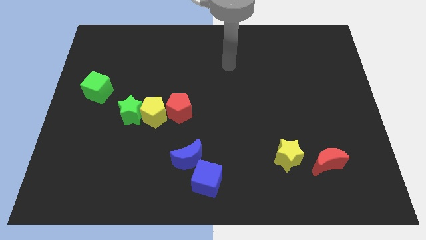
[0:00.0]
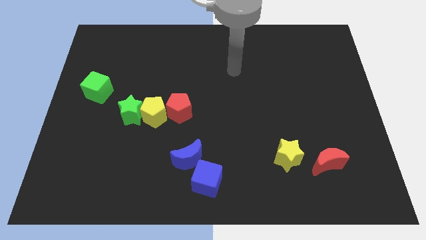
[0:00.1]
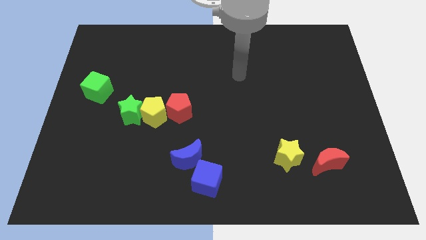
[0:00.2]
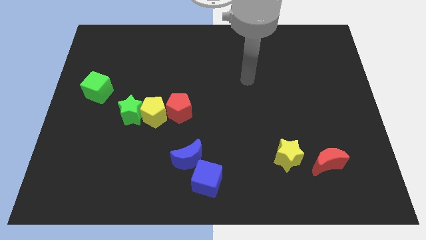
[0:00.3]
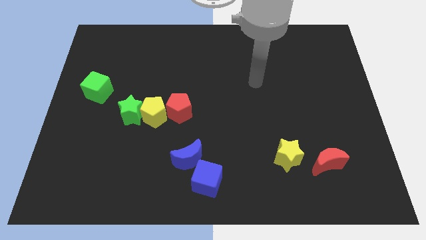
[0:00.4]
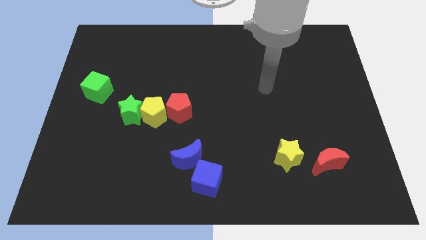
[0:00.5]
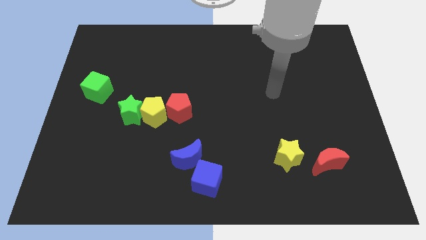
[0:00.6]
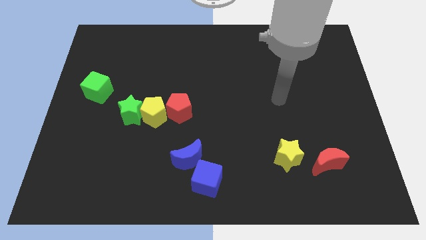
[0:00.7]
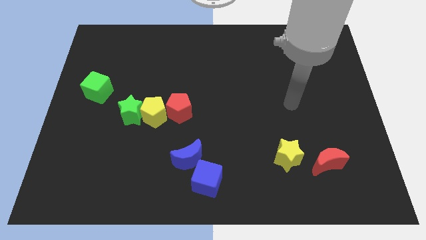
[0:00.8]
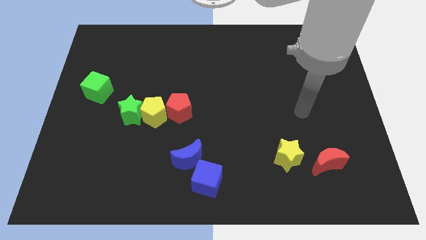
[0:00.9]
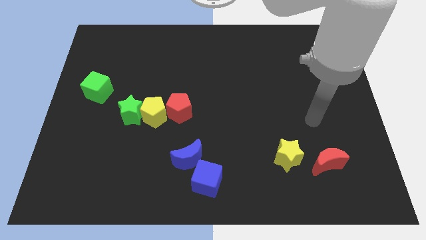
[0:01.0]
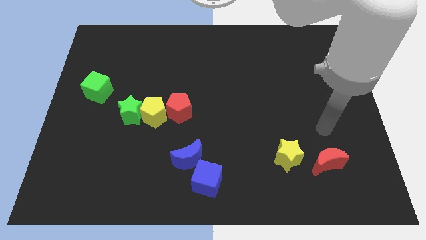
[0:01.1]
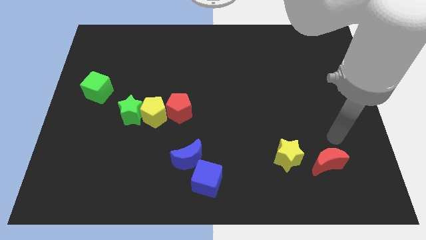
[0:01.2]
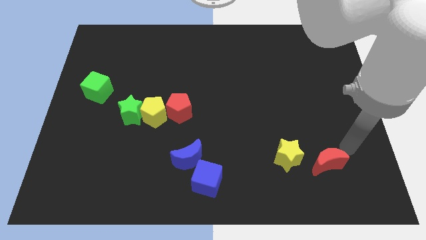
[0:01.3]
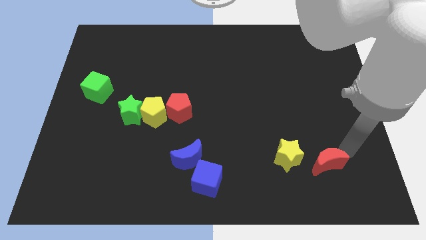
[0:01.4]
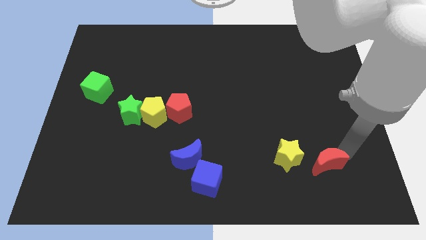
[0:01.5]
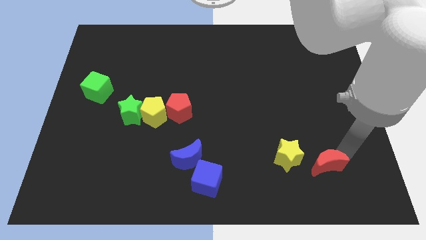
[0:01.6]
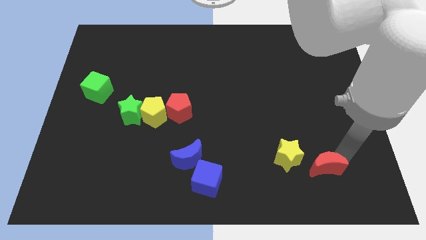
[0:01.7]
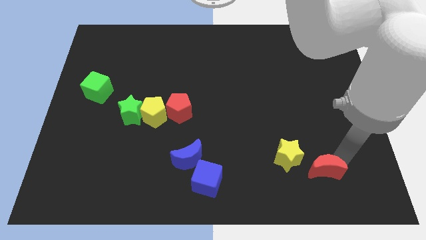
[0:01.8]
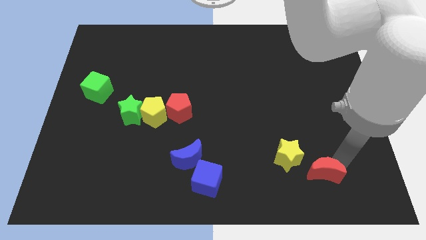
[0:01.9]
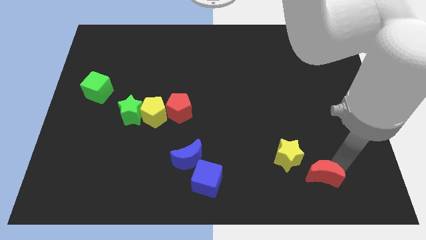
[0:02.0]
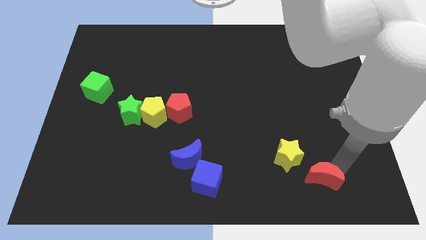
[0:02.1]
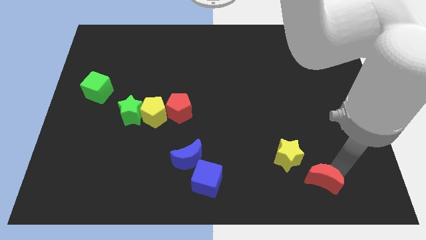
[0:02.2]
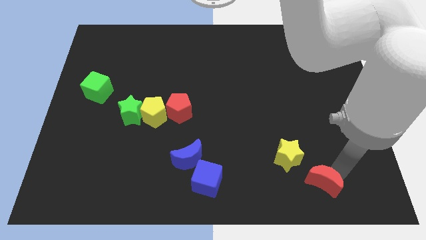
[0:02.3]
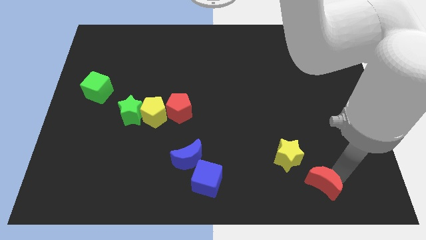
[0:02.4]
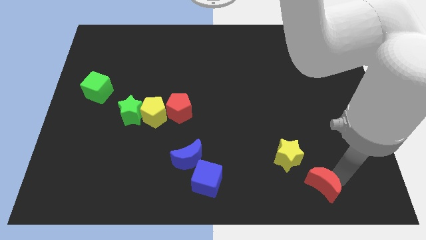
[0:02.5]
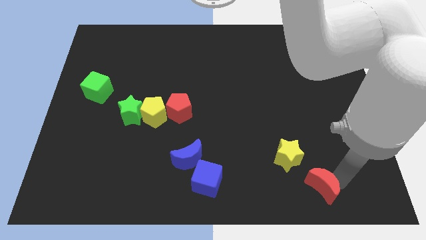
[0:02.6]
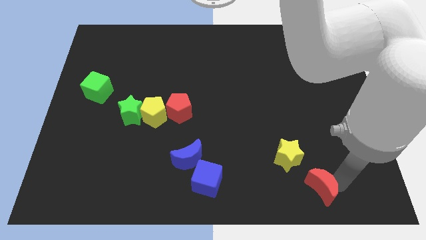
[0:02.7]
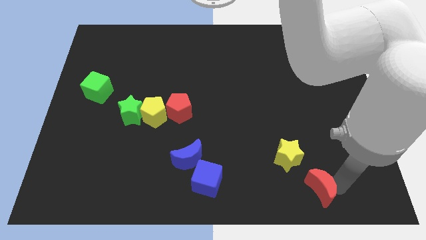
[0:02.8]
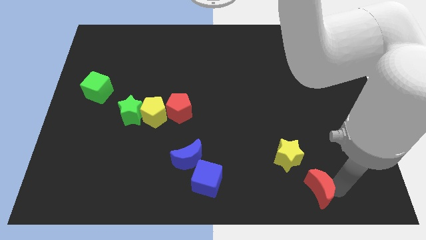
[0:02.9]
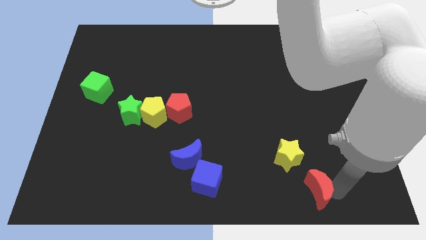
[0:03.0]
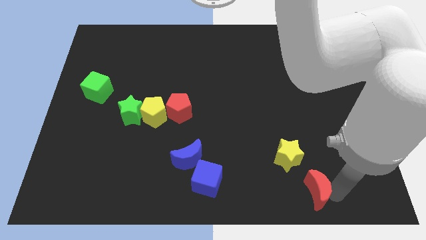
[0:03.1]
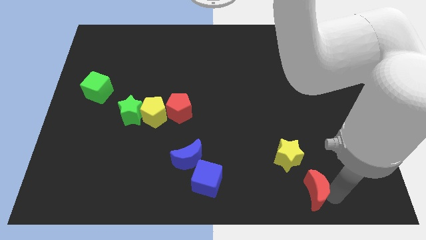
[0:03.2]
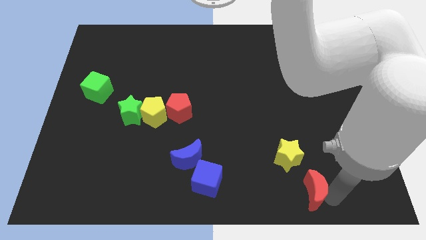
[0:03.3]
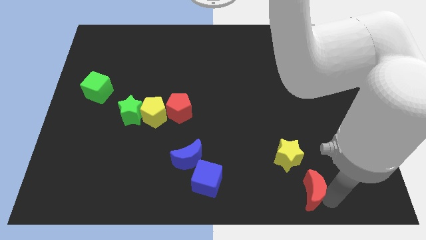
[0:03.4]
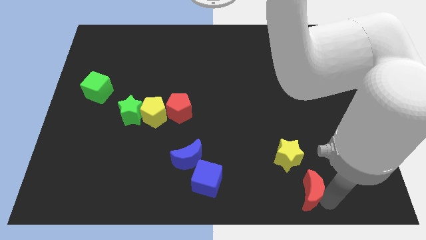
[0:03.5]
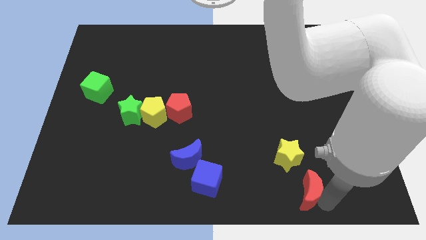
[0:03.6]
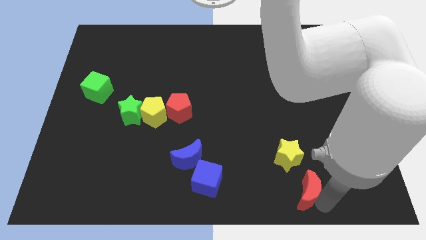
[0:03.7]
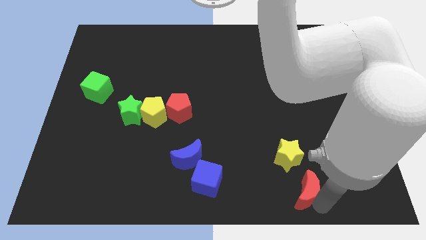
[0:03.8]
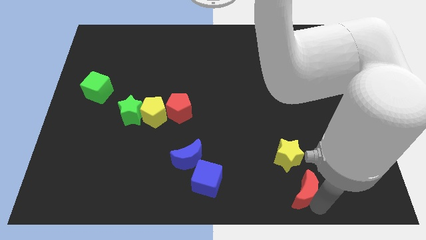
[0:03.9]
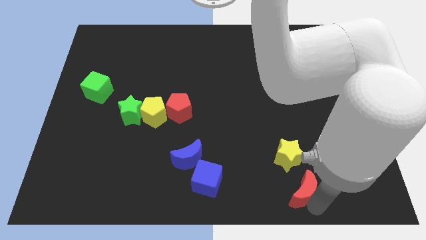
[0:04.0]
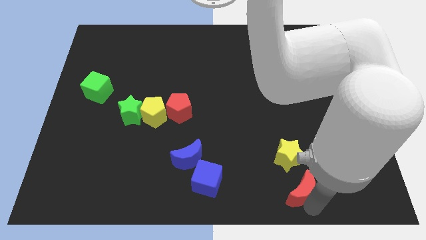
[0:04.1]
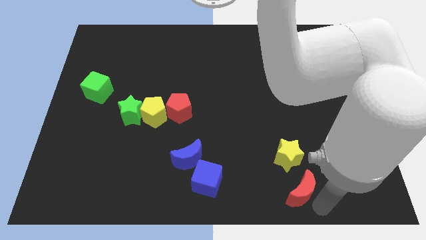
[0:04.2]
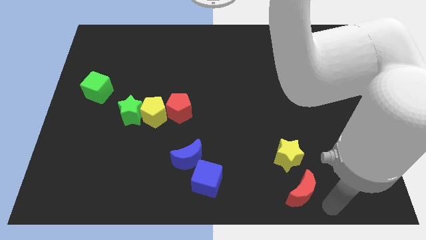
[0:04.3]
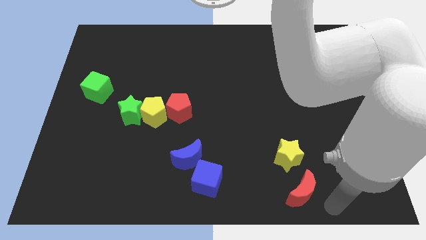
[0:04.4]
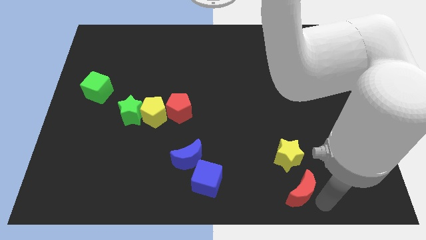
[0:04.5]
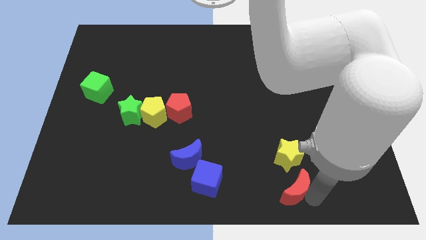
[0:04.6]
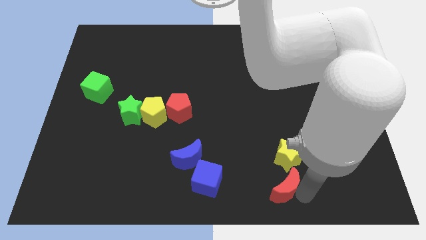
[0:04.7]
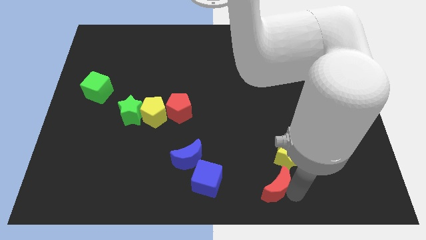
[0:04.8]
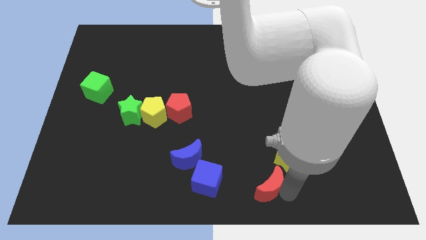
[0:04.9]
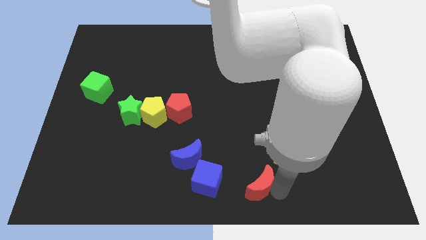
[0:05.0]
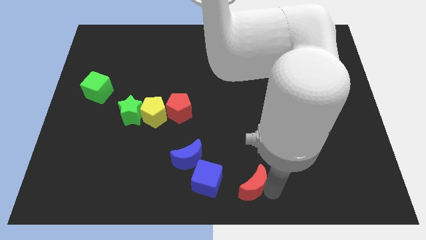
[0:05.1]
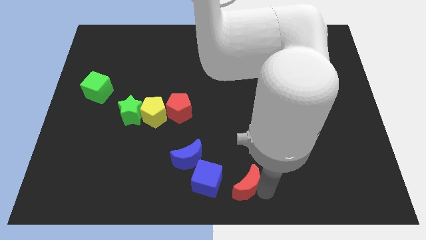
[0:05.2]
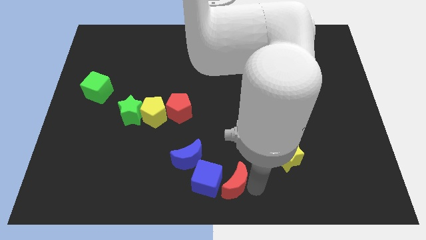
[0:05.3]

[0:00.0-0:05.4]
slide the red moon next to the blue cube

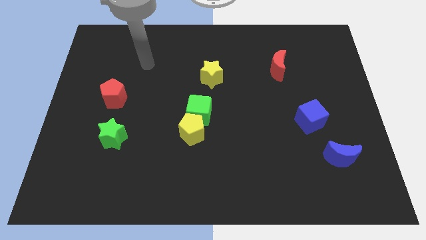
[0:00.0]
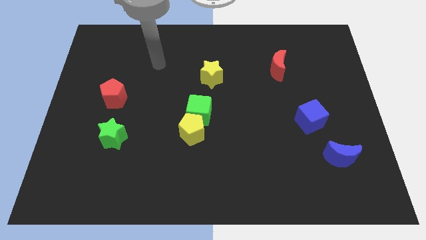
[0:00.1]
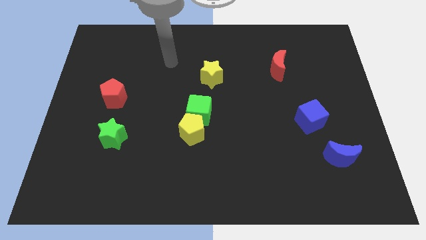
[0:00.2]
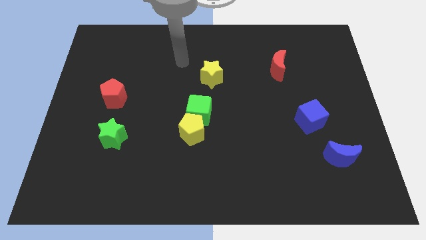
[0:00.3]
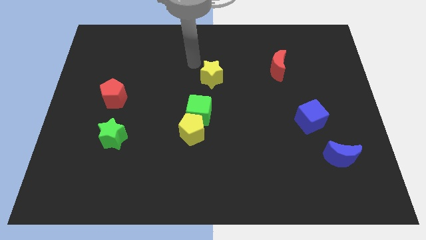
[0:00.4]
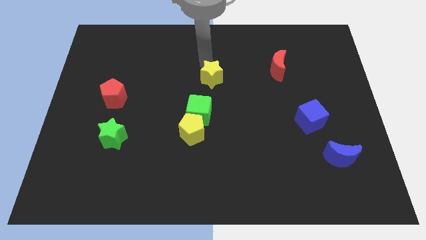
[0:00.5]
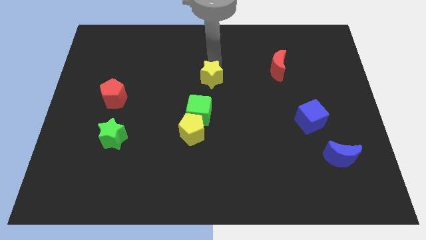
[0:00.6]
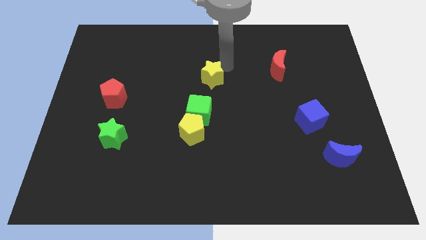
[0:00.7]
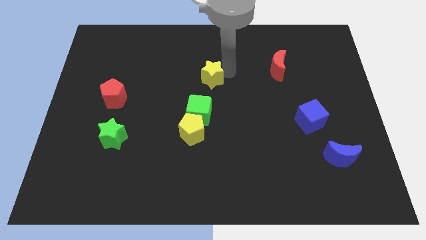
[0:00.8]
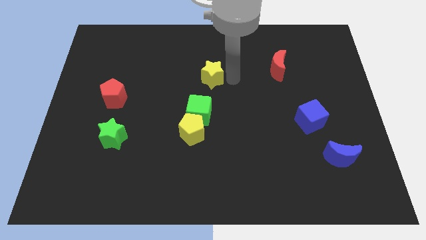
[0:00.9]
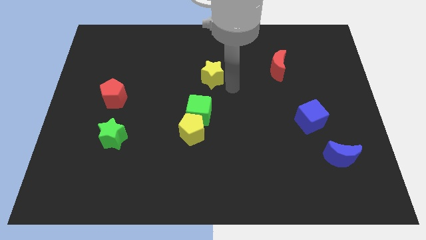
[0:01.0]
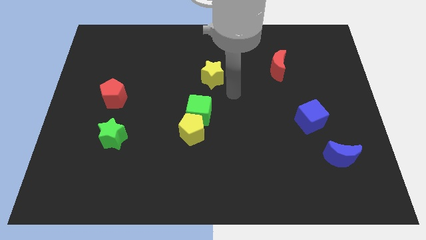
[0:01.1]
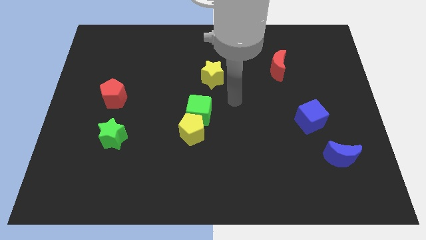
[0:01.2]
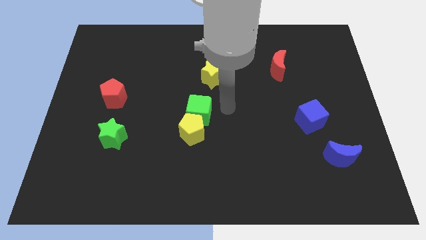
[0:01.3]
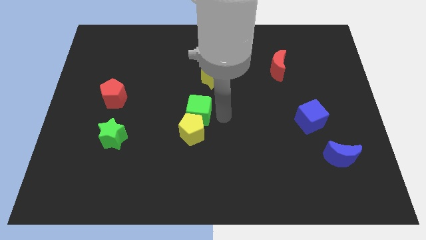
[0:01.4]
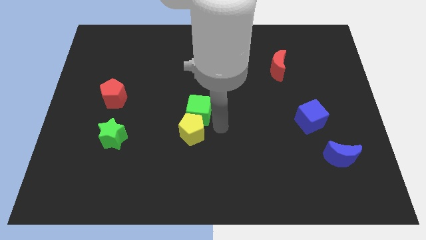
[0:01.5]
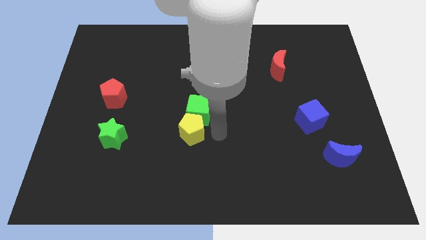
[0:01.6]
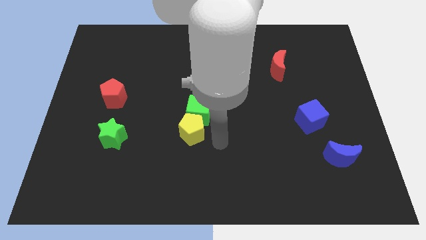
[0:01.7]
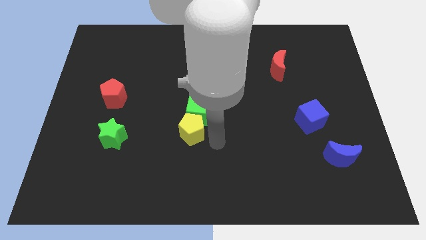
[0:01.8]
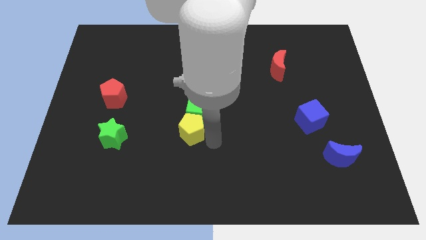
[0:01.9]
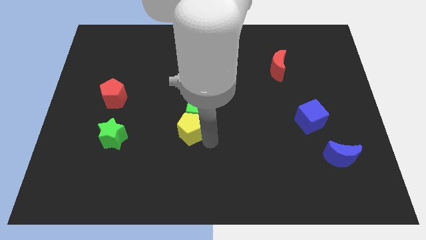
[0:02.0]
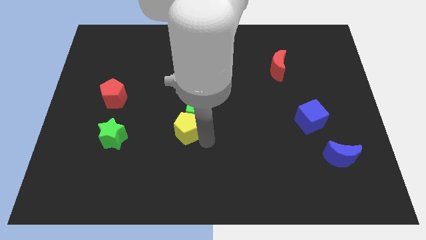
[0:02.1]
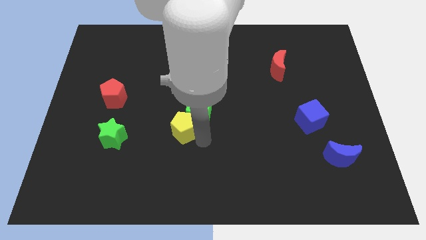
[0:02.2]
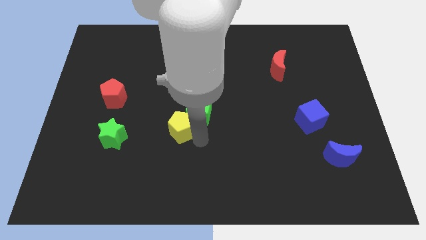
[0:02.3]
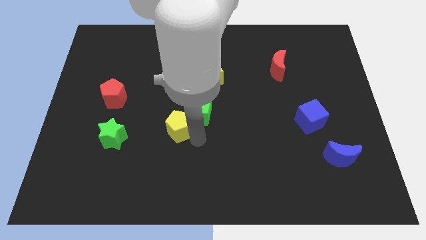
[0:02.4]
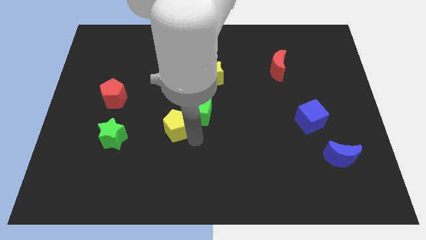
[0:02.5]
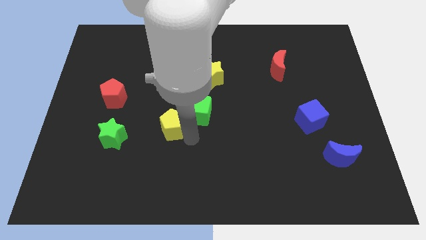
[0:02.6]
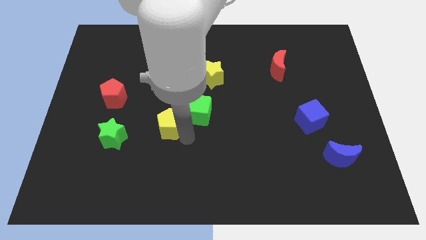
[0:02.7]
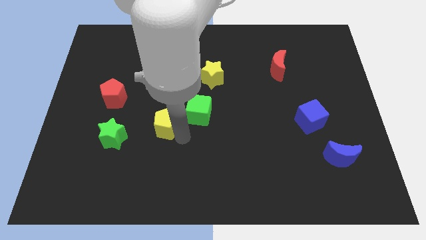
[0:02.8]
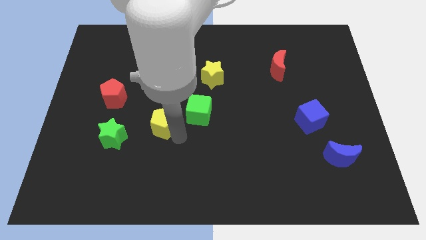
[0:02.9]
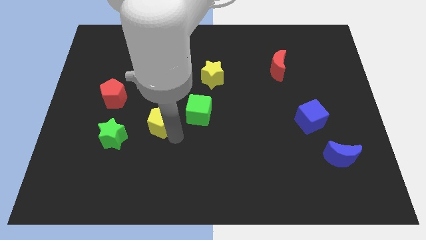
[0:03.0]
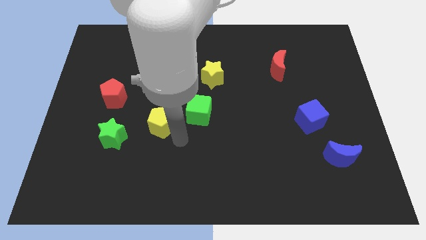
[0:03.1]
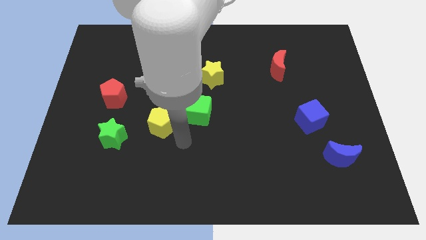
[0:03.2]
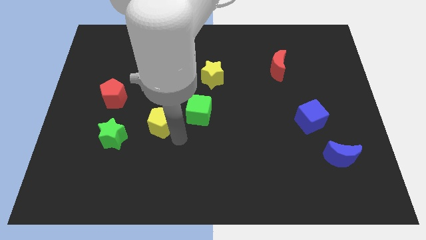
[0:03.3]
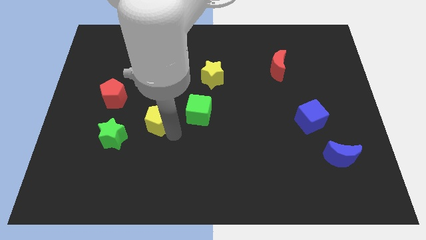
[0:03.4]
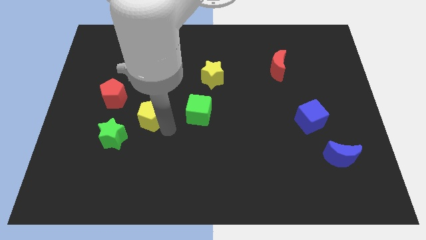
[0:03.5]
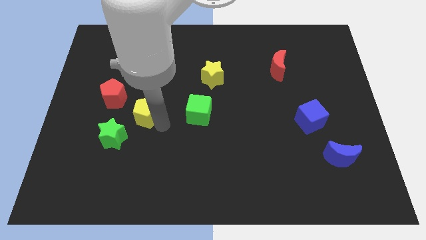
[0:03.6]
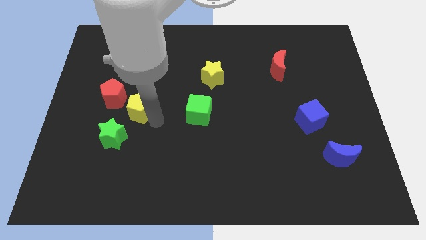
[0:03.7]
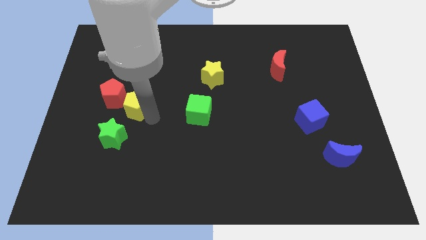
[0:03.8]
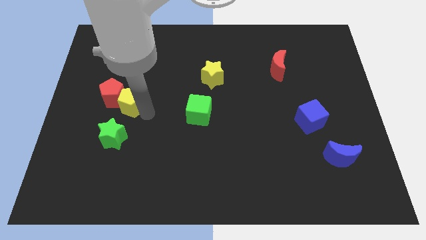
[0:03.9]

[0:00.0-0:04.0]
slide the yellow pentagon towards the red pentagon
